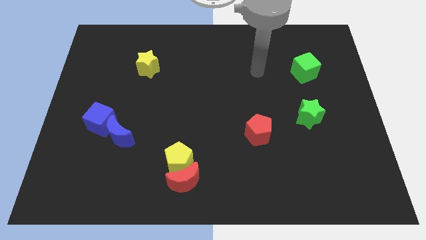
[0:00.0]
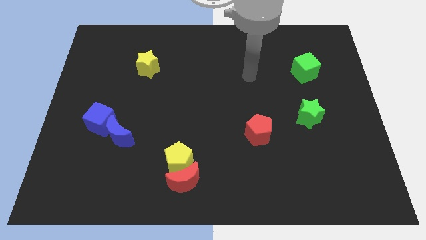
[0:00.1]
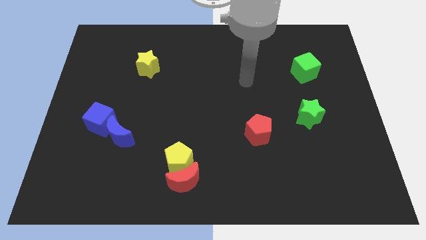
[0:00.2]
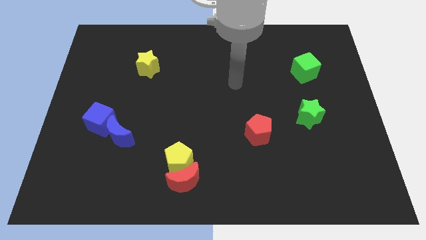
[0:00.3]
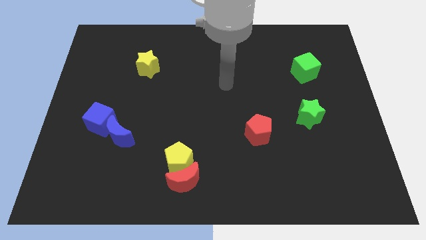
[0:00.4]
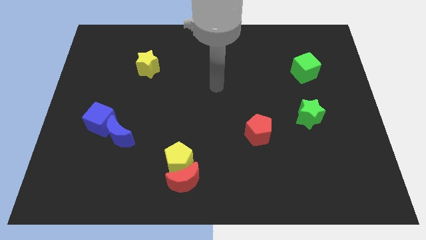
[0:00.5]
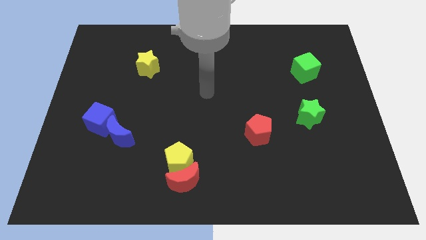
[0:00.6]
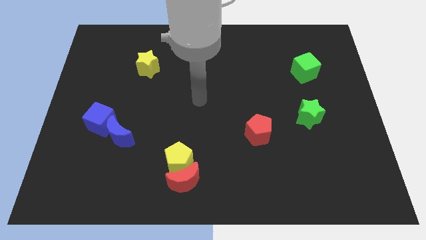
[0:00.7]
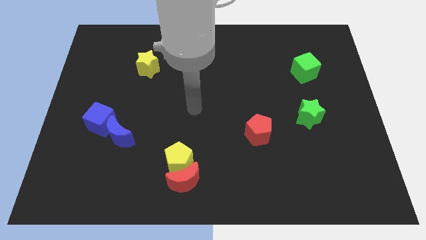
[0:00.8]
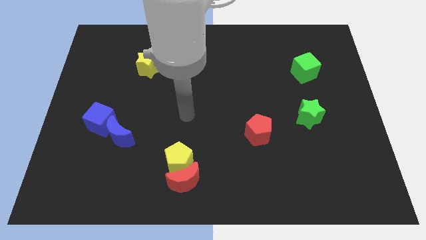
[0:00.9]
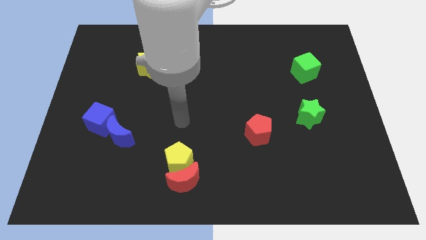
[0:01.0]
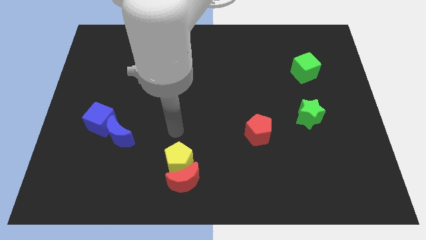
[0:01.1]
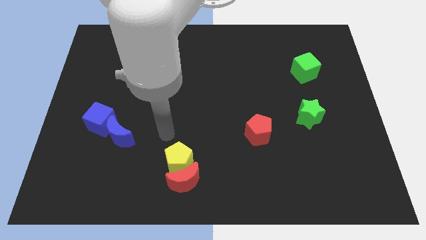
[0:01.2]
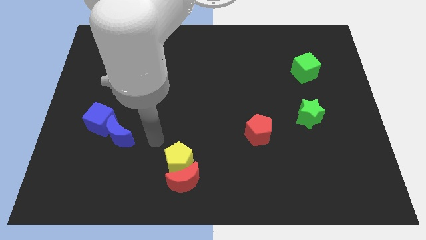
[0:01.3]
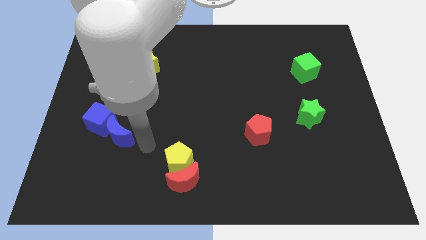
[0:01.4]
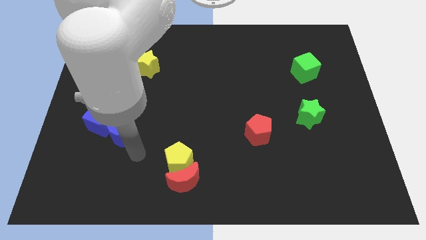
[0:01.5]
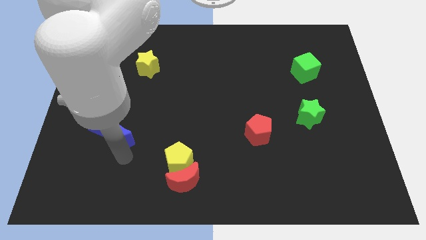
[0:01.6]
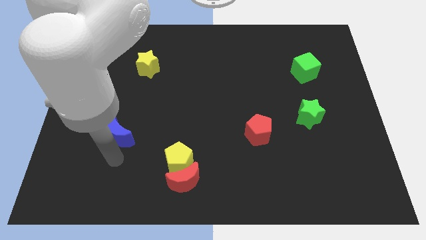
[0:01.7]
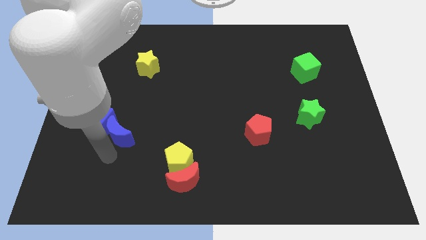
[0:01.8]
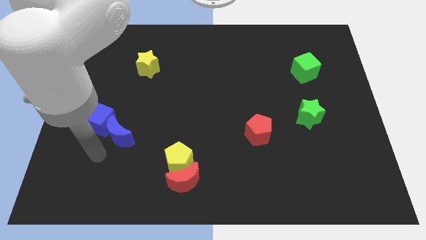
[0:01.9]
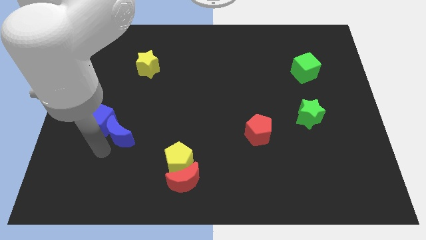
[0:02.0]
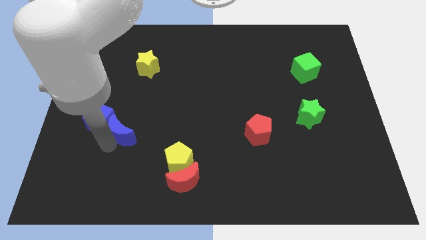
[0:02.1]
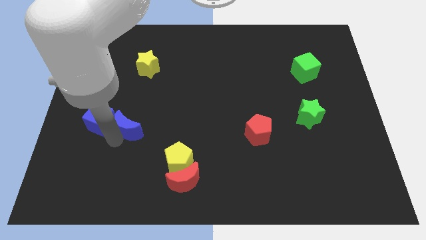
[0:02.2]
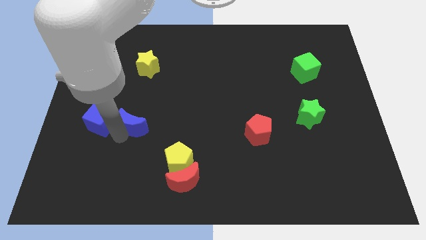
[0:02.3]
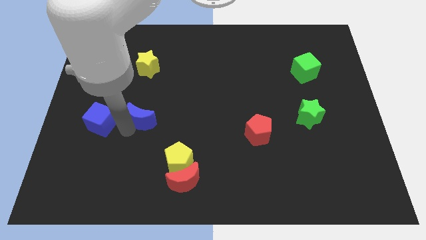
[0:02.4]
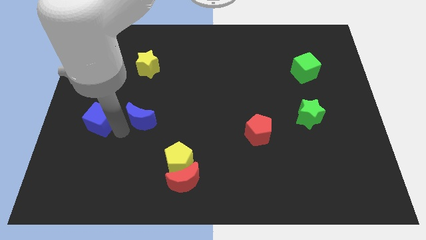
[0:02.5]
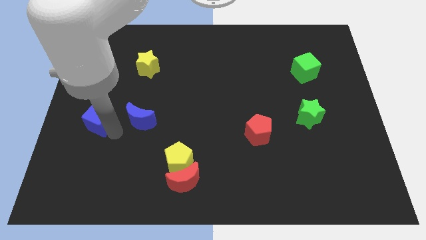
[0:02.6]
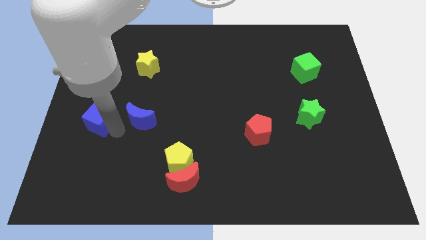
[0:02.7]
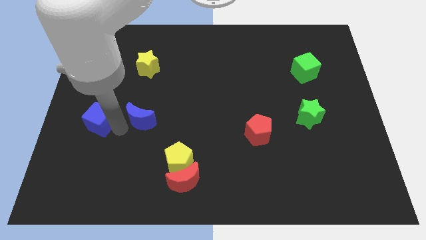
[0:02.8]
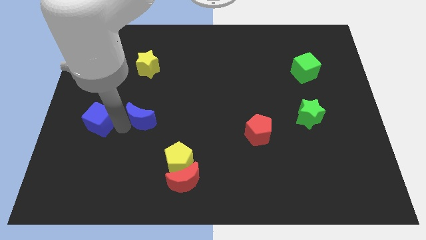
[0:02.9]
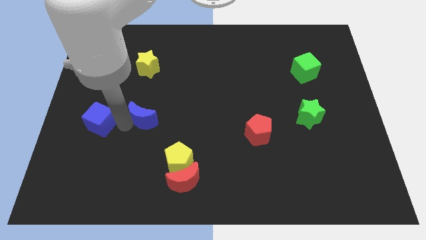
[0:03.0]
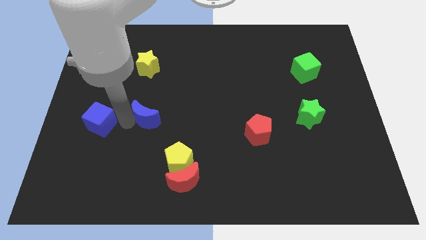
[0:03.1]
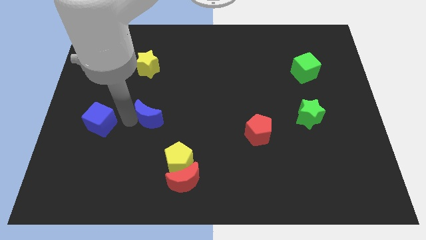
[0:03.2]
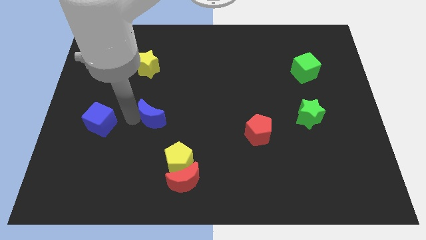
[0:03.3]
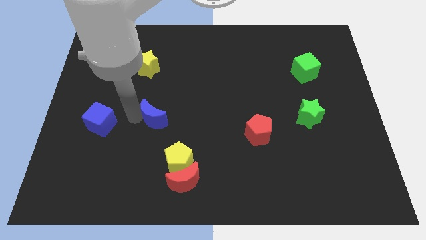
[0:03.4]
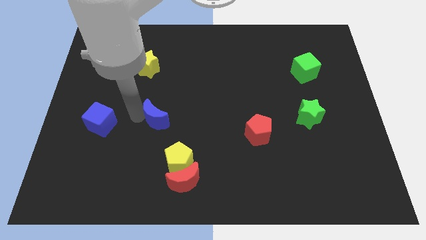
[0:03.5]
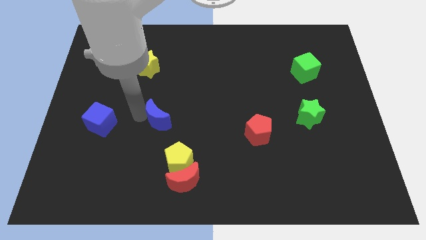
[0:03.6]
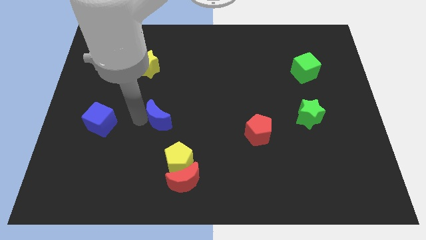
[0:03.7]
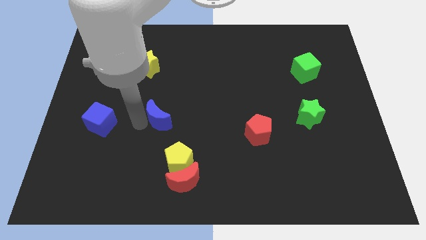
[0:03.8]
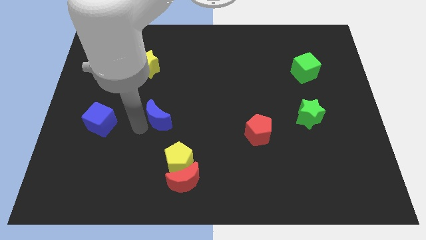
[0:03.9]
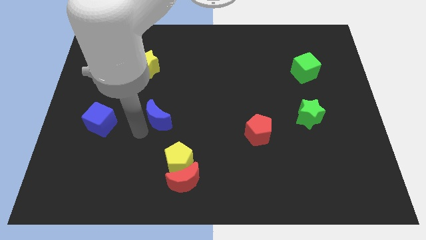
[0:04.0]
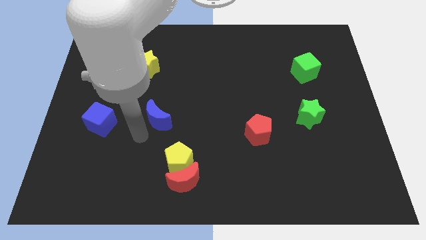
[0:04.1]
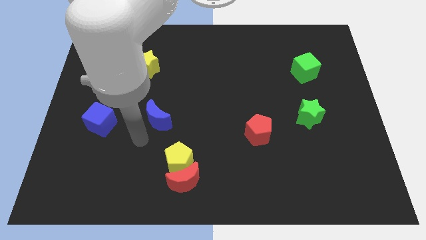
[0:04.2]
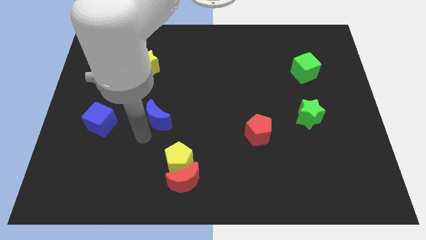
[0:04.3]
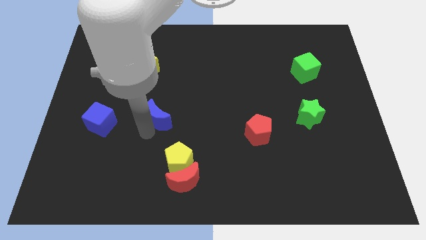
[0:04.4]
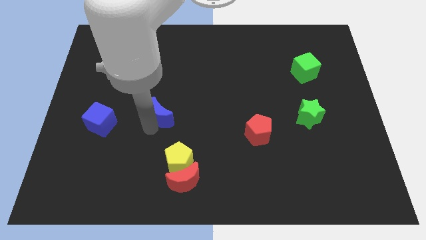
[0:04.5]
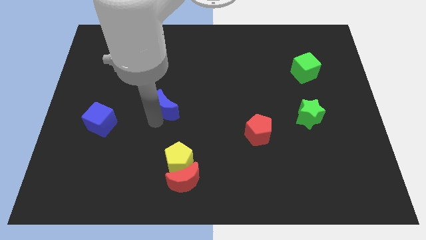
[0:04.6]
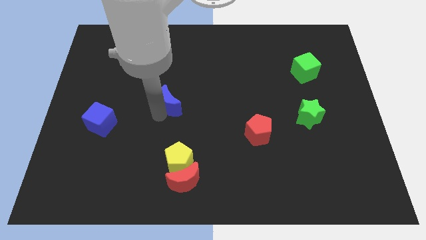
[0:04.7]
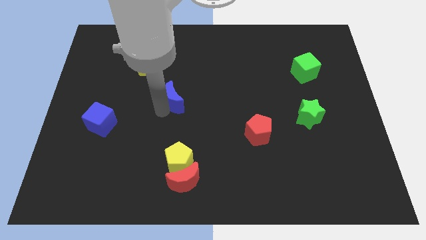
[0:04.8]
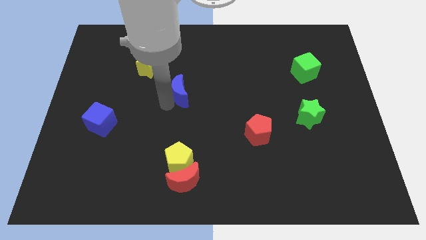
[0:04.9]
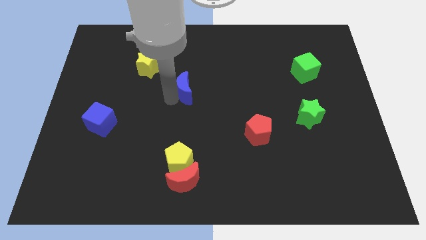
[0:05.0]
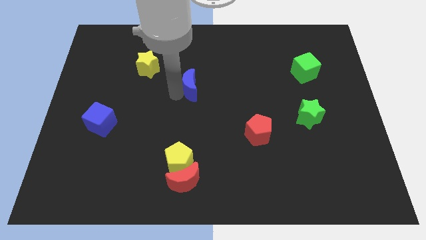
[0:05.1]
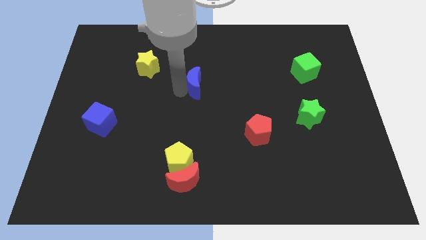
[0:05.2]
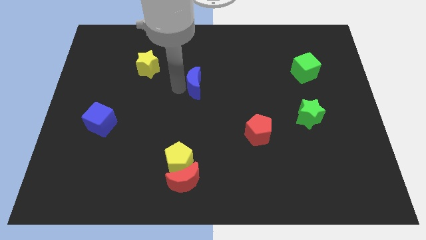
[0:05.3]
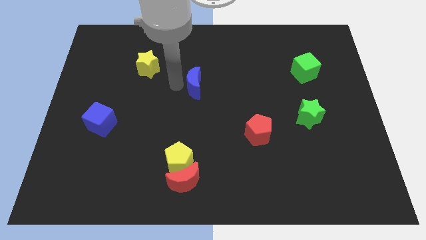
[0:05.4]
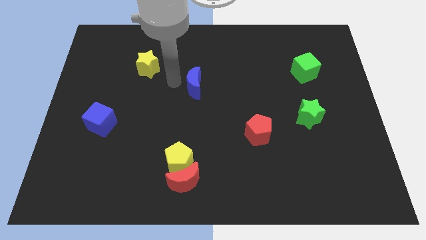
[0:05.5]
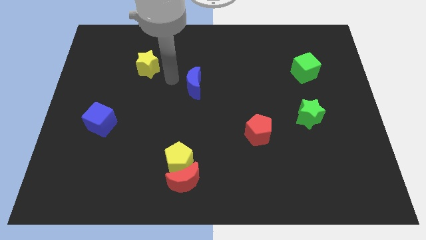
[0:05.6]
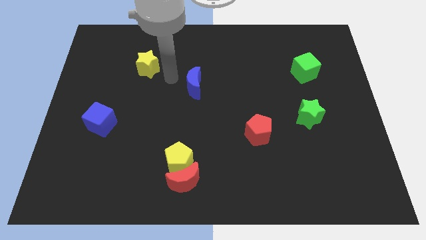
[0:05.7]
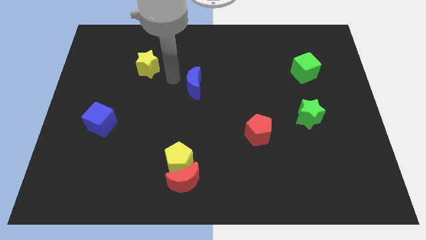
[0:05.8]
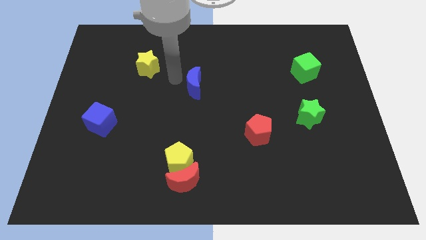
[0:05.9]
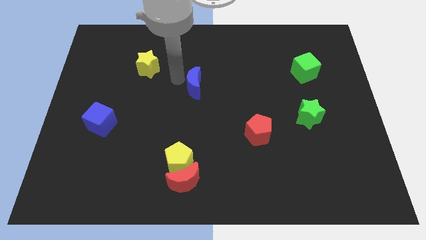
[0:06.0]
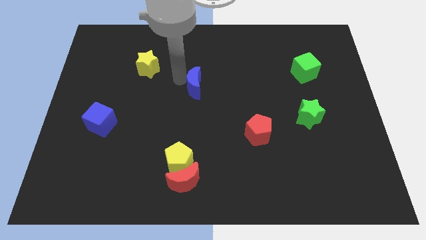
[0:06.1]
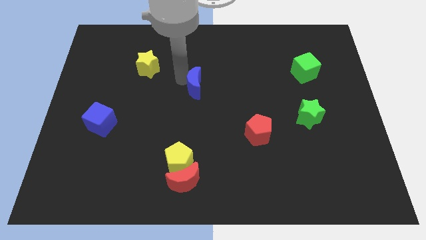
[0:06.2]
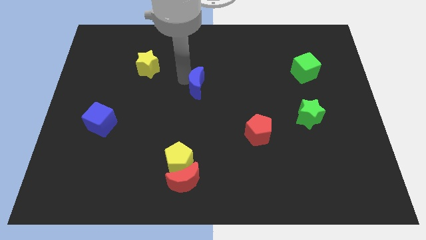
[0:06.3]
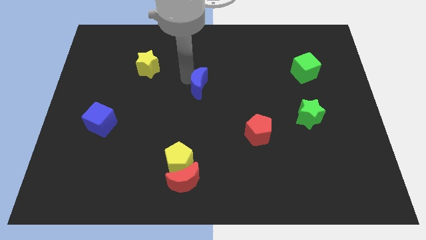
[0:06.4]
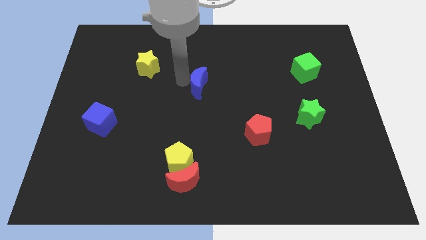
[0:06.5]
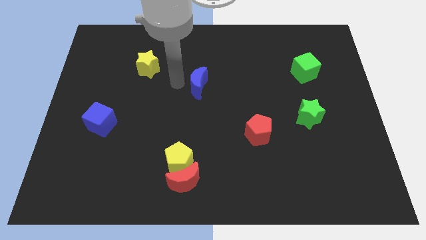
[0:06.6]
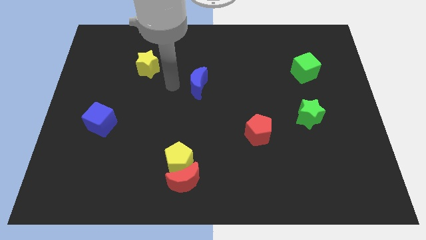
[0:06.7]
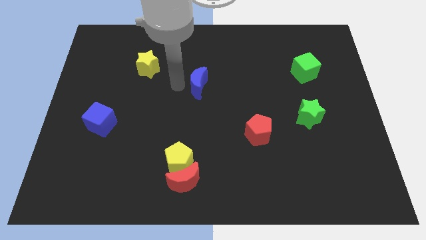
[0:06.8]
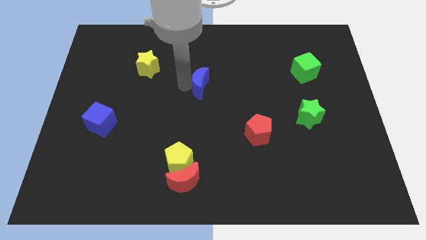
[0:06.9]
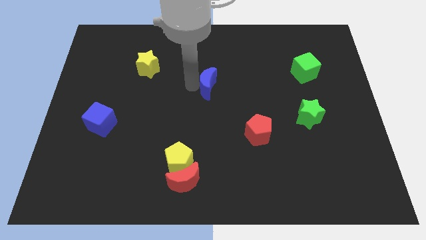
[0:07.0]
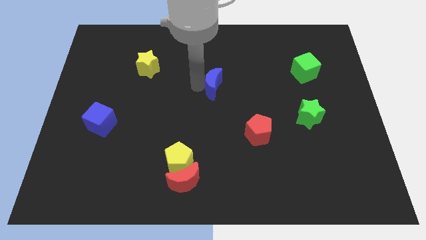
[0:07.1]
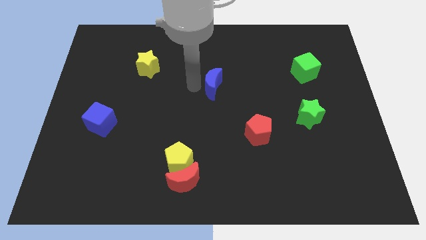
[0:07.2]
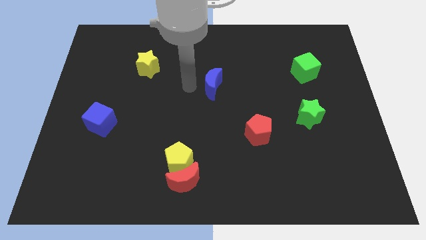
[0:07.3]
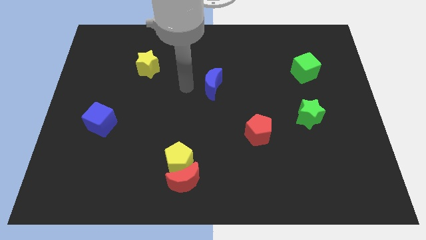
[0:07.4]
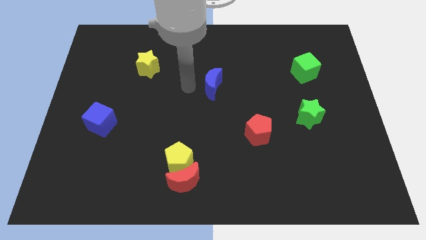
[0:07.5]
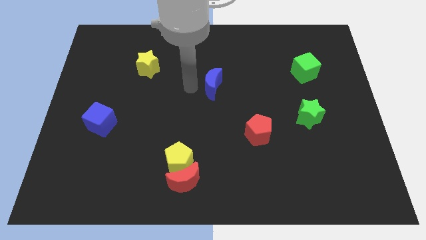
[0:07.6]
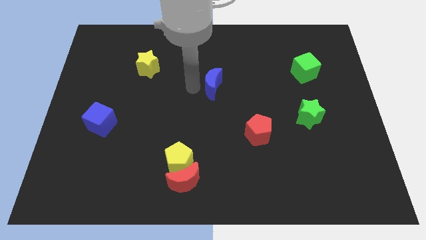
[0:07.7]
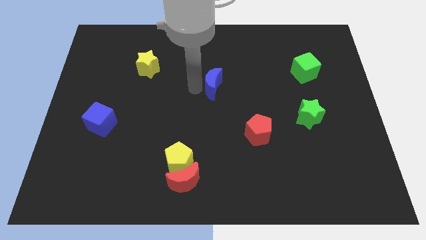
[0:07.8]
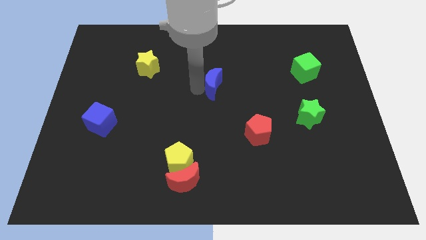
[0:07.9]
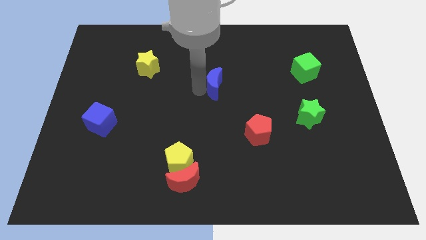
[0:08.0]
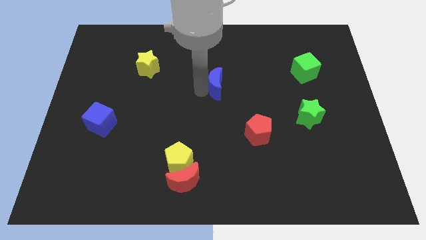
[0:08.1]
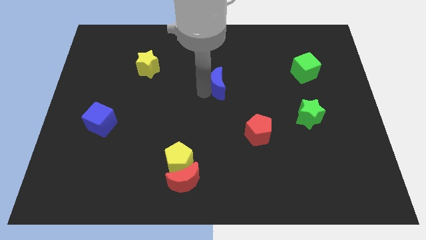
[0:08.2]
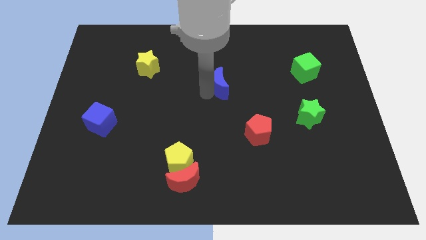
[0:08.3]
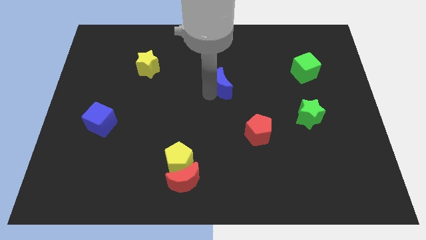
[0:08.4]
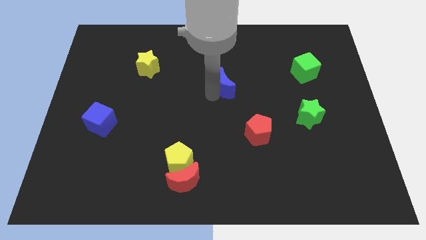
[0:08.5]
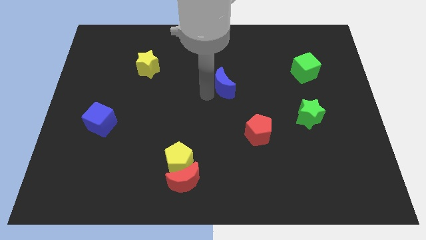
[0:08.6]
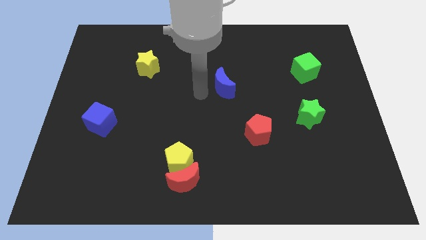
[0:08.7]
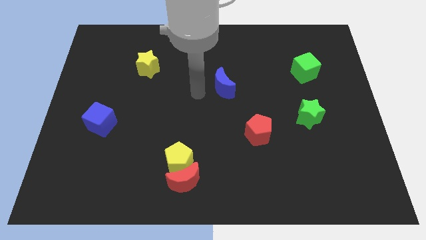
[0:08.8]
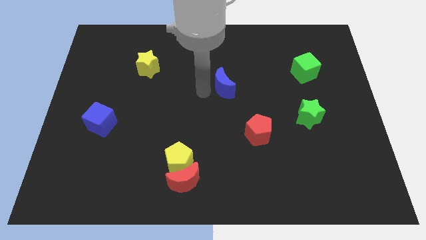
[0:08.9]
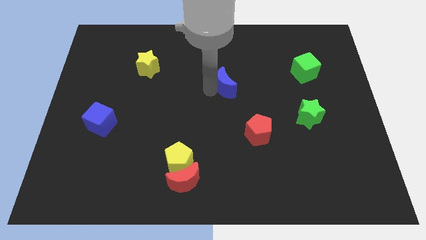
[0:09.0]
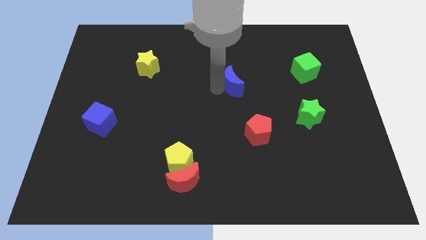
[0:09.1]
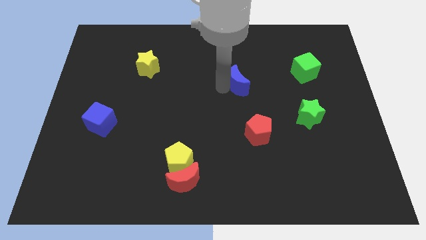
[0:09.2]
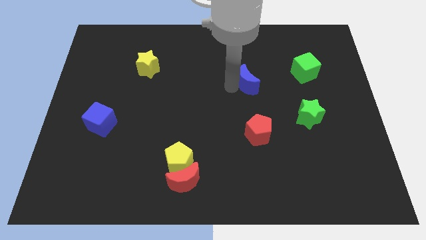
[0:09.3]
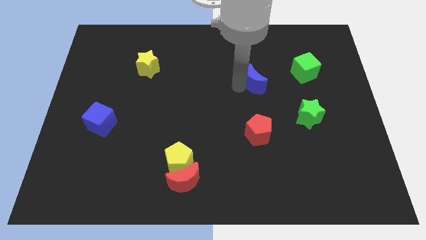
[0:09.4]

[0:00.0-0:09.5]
put the blue moon just left of the green cube
